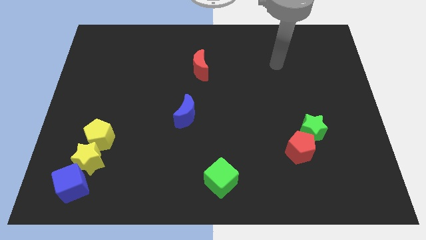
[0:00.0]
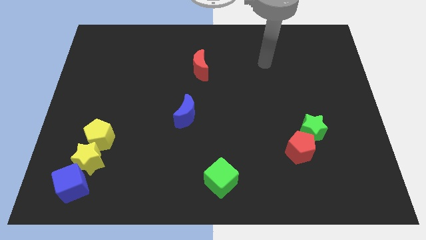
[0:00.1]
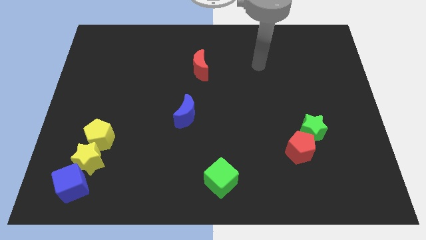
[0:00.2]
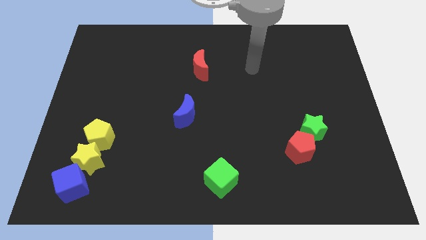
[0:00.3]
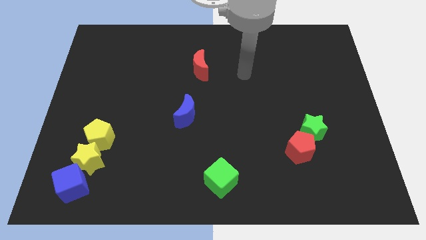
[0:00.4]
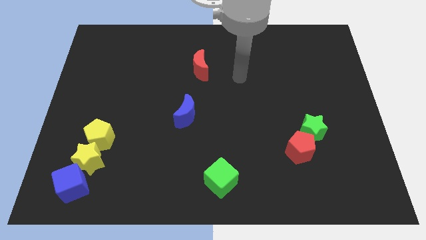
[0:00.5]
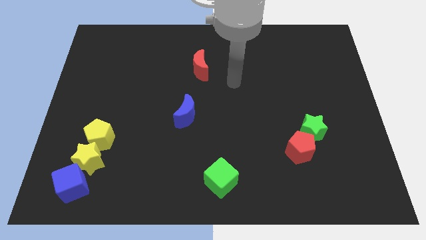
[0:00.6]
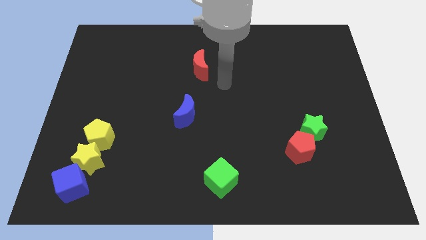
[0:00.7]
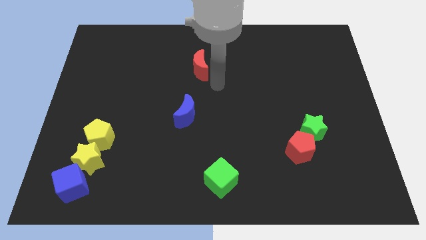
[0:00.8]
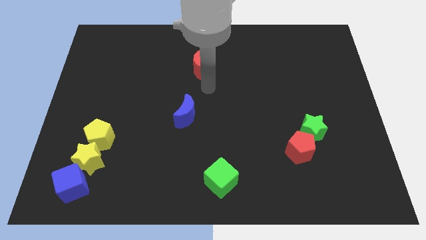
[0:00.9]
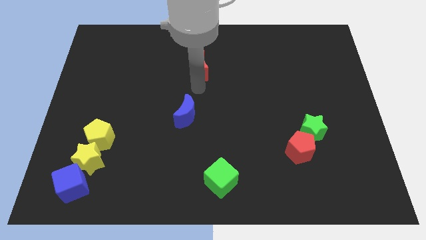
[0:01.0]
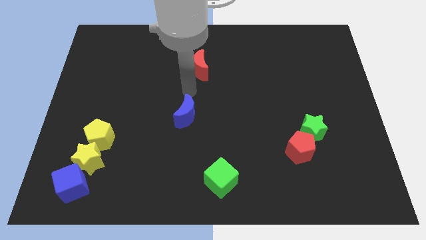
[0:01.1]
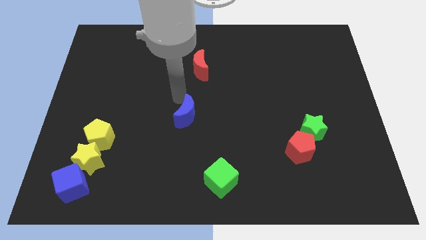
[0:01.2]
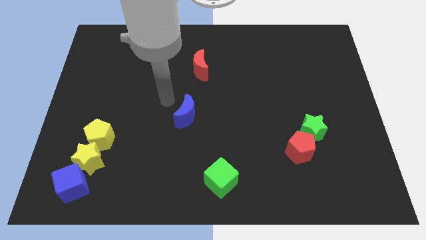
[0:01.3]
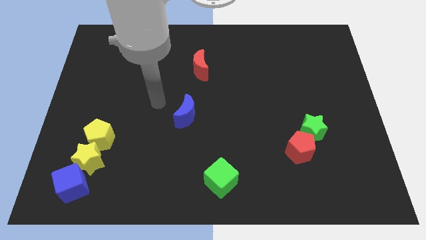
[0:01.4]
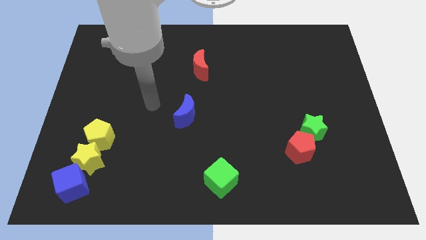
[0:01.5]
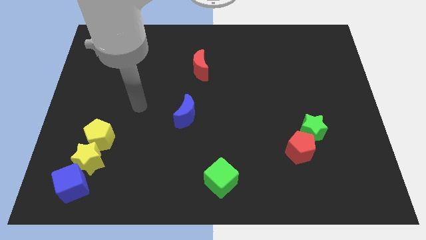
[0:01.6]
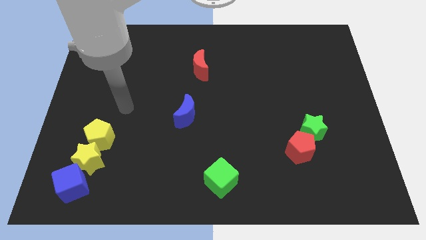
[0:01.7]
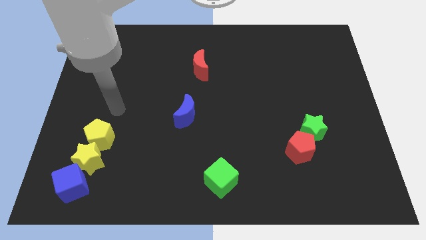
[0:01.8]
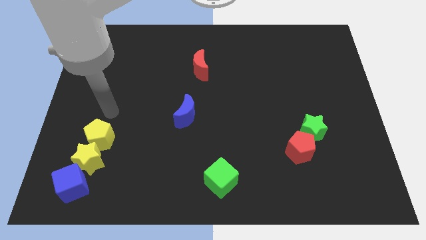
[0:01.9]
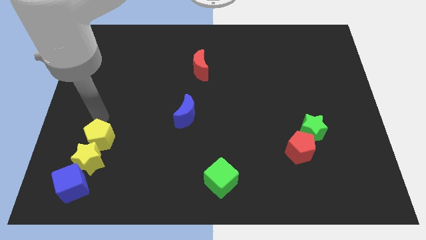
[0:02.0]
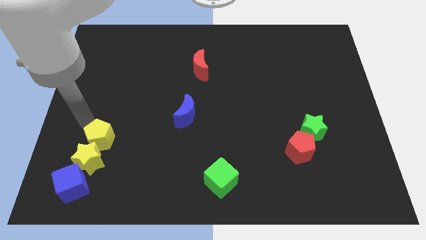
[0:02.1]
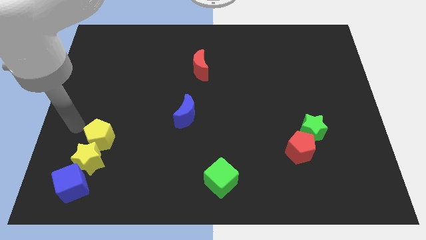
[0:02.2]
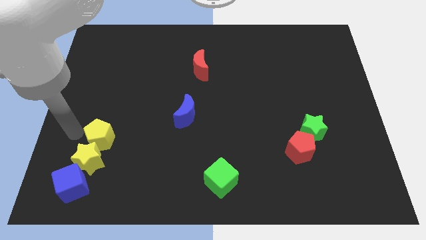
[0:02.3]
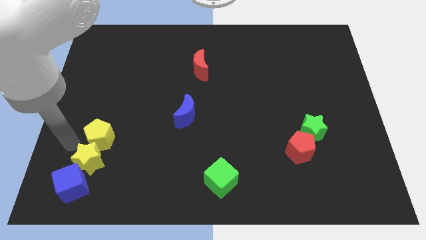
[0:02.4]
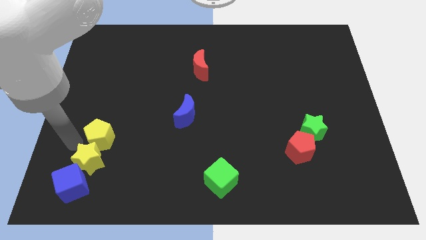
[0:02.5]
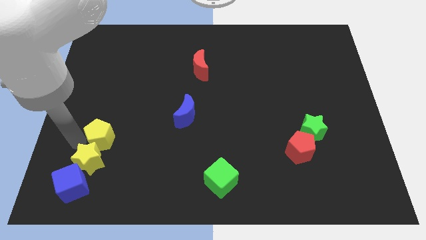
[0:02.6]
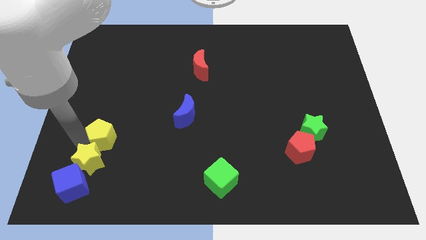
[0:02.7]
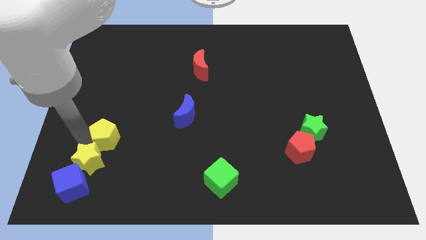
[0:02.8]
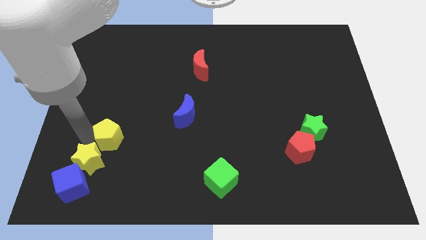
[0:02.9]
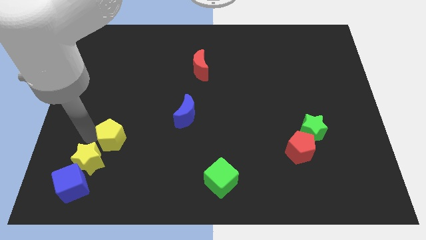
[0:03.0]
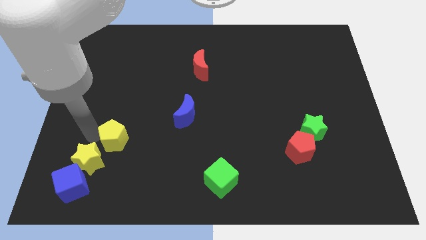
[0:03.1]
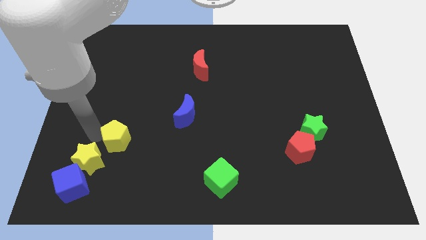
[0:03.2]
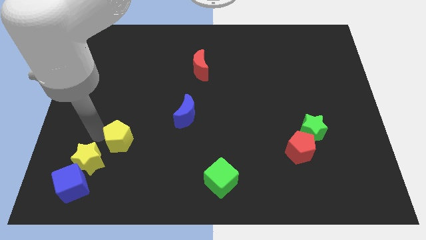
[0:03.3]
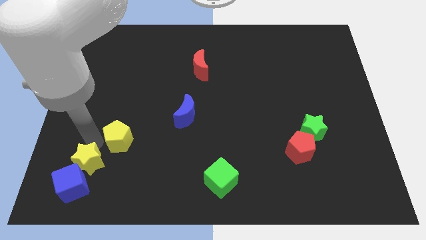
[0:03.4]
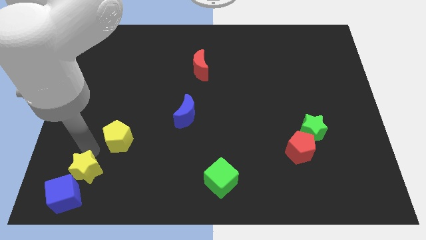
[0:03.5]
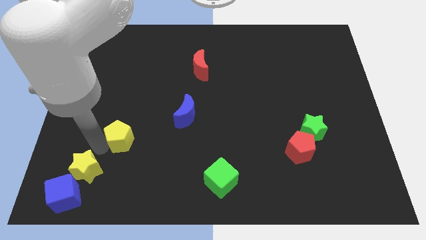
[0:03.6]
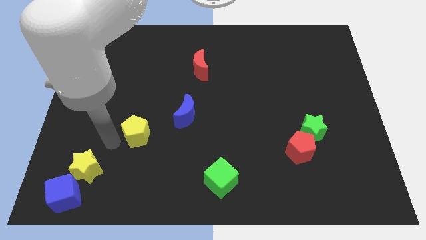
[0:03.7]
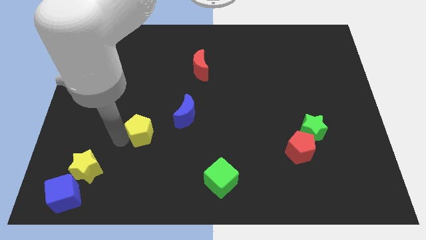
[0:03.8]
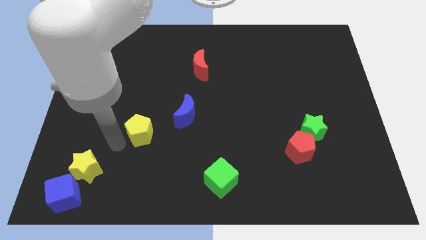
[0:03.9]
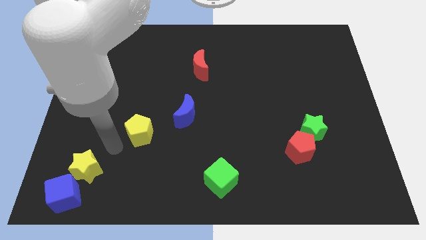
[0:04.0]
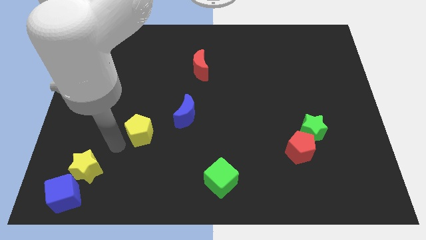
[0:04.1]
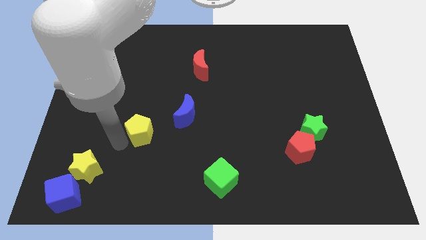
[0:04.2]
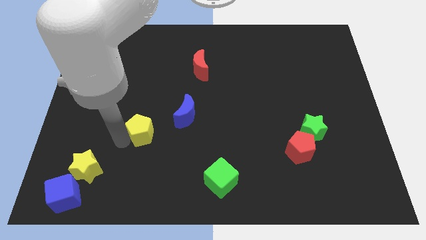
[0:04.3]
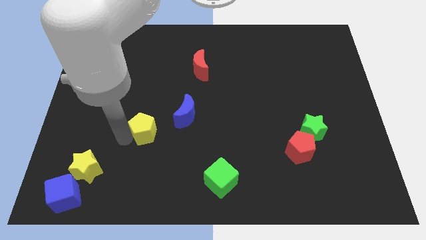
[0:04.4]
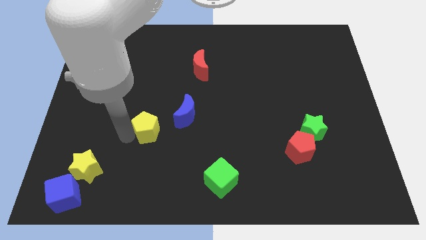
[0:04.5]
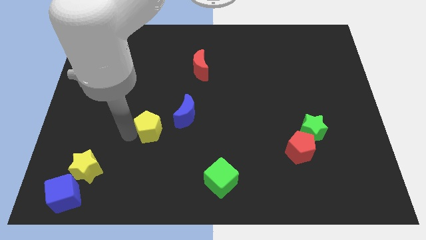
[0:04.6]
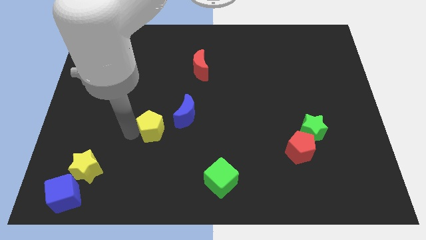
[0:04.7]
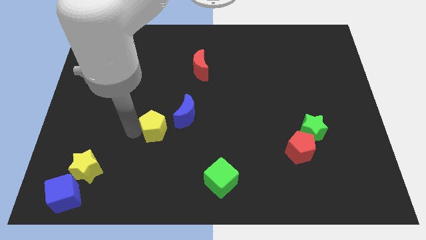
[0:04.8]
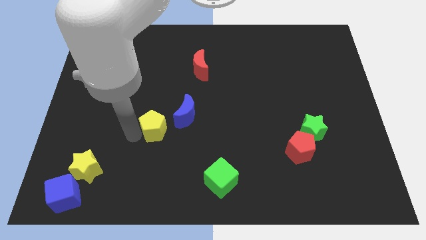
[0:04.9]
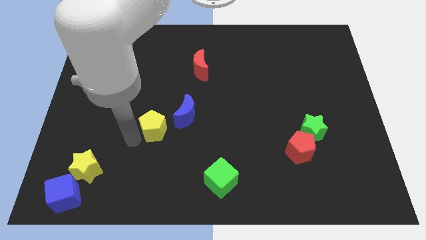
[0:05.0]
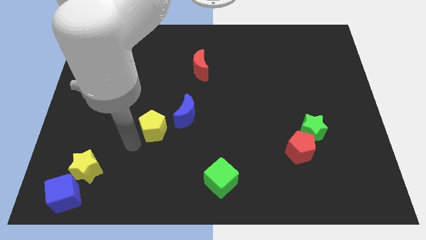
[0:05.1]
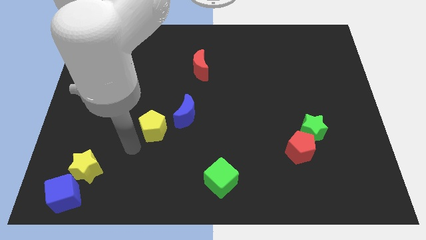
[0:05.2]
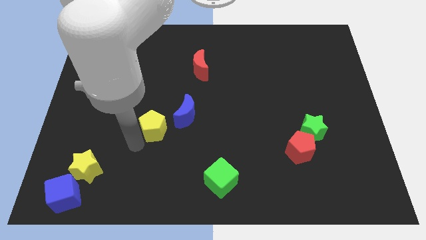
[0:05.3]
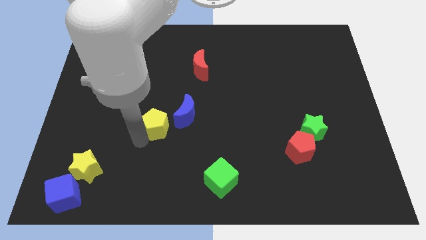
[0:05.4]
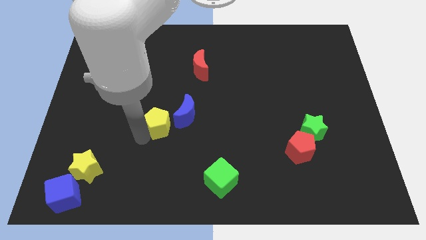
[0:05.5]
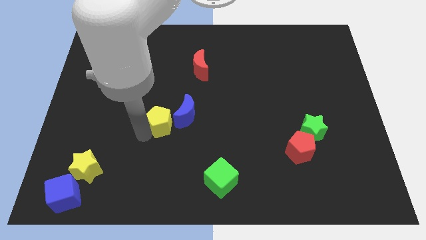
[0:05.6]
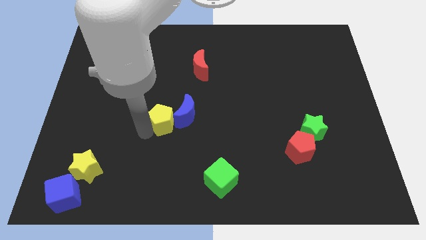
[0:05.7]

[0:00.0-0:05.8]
move the yellow pentagon to the blue moon

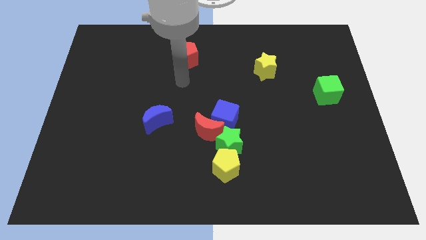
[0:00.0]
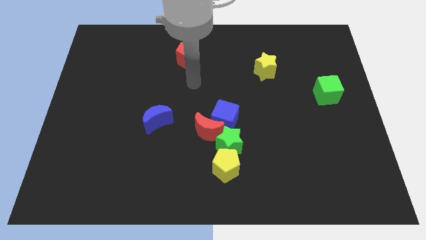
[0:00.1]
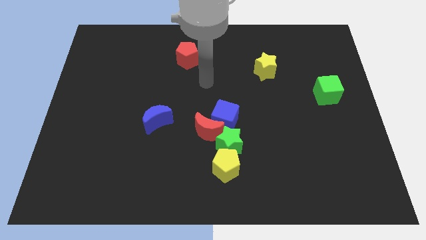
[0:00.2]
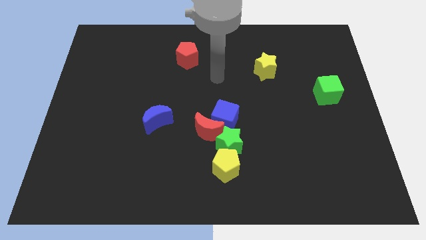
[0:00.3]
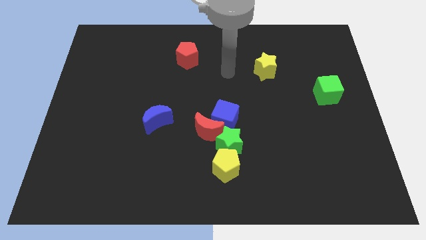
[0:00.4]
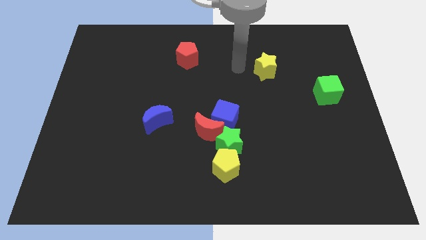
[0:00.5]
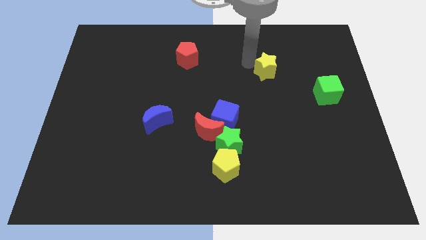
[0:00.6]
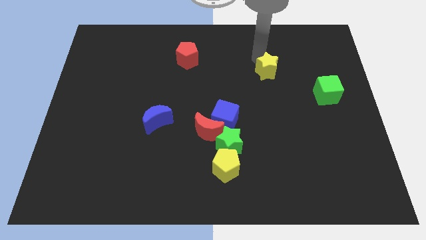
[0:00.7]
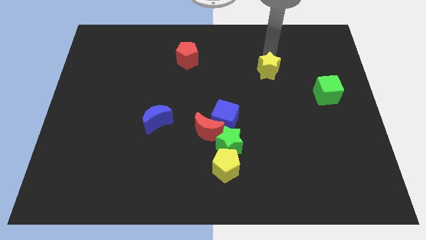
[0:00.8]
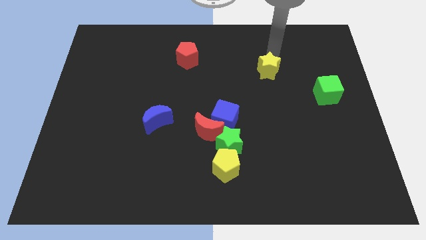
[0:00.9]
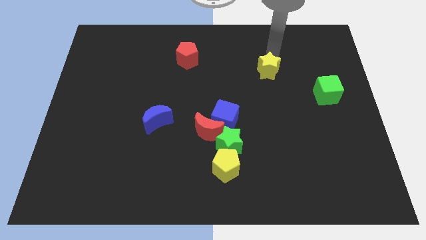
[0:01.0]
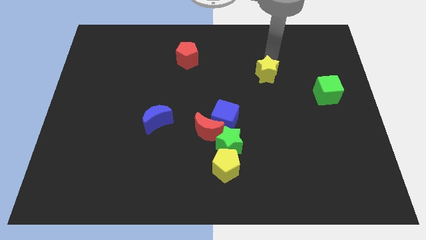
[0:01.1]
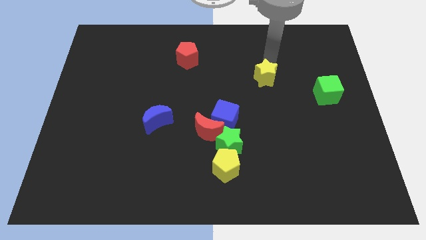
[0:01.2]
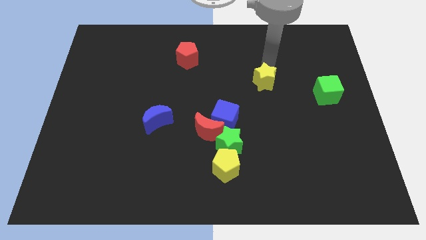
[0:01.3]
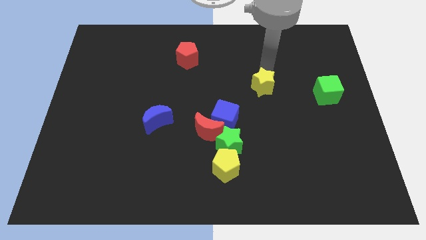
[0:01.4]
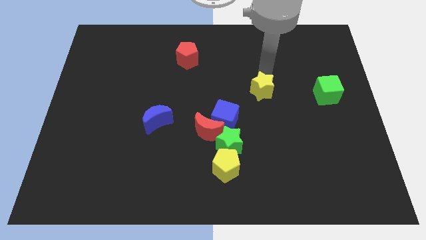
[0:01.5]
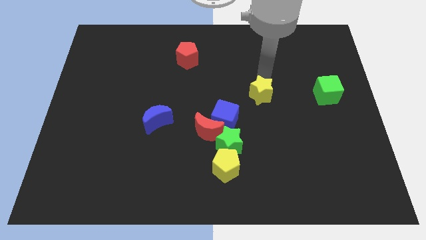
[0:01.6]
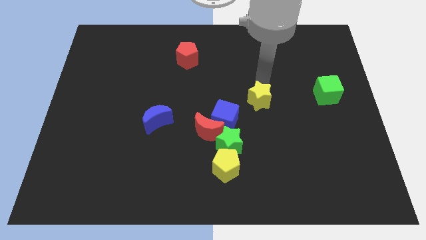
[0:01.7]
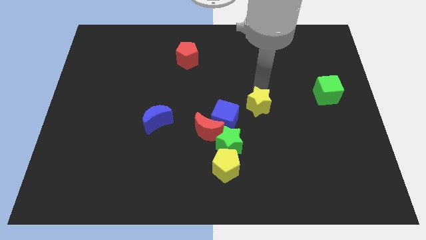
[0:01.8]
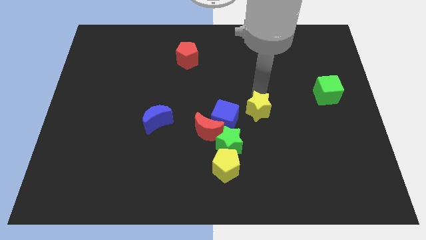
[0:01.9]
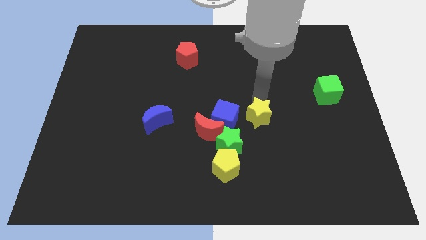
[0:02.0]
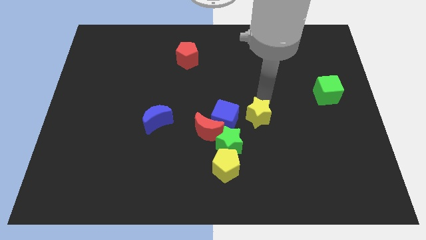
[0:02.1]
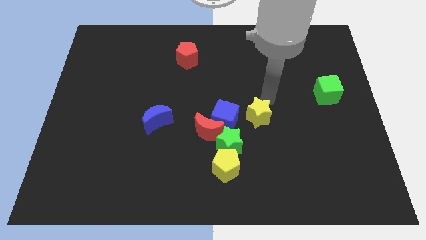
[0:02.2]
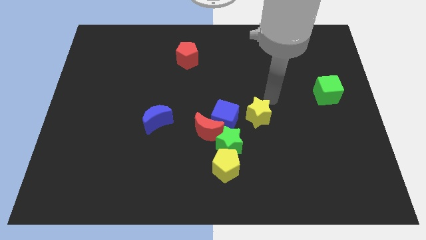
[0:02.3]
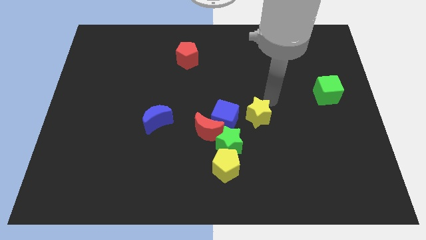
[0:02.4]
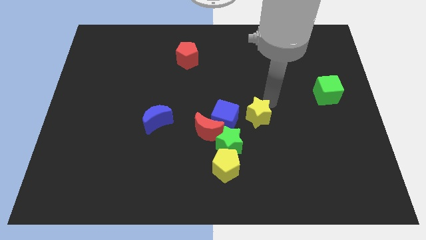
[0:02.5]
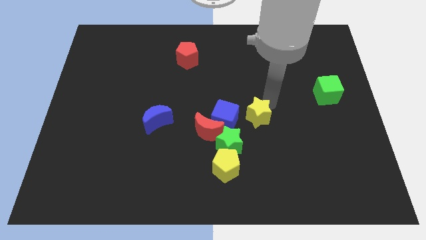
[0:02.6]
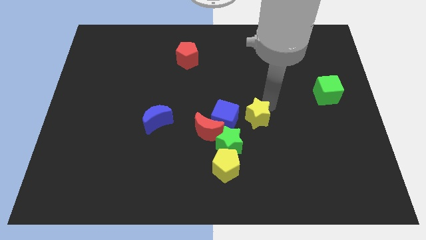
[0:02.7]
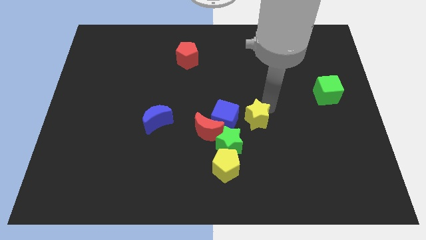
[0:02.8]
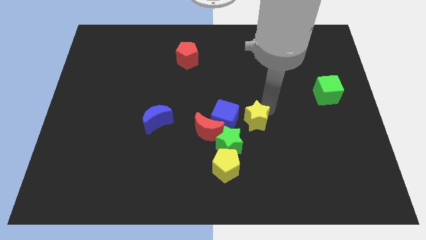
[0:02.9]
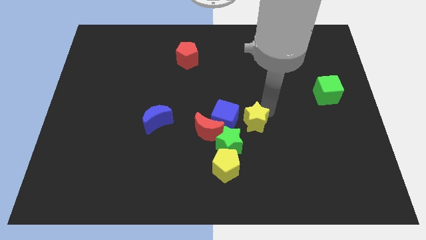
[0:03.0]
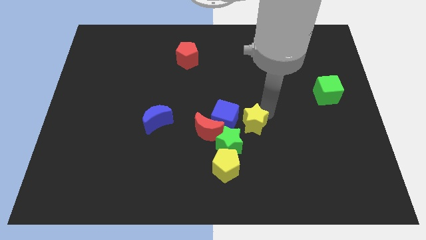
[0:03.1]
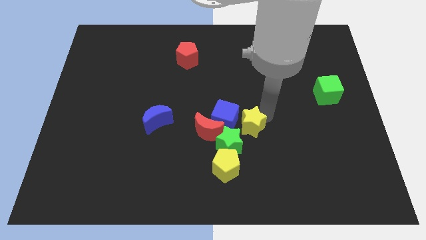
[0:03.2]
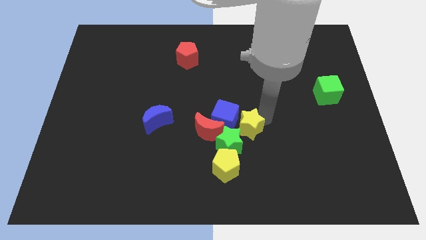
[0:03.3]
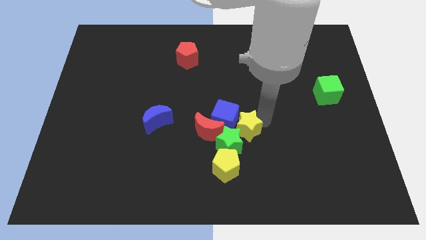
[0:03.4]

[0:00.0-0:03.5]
put the yellow star to the green star
